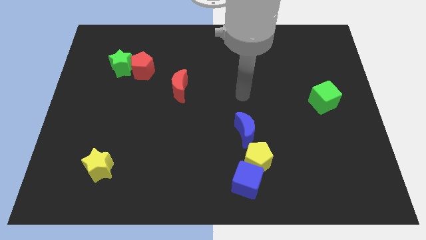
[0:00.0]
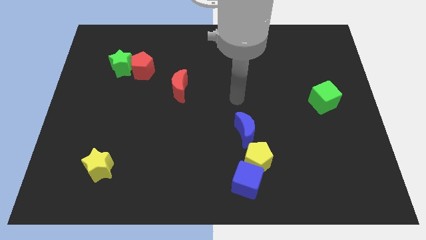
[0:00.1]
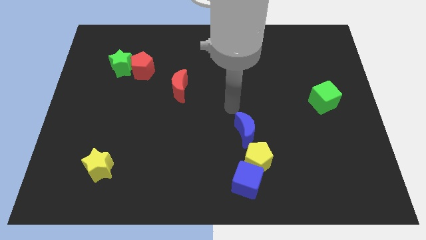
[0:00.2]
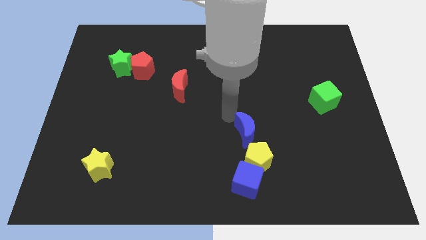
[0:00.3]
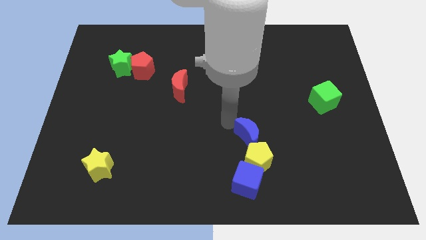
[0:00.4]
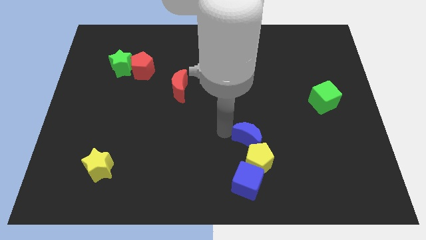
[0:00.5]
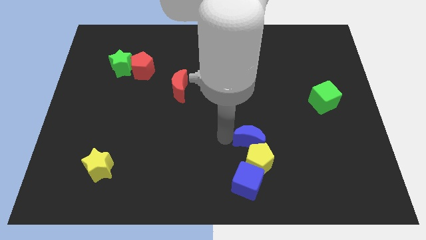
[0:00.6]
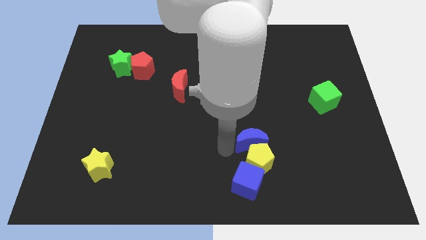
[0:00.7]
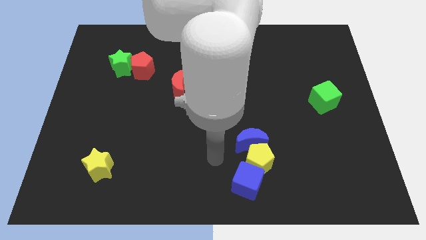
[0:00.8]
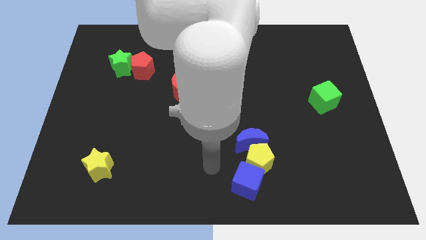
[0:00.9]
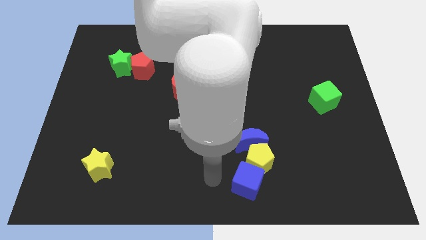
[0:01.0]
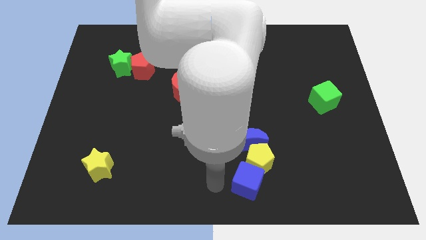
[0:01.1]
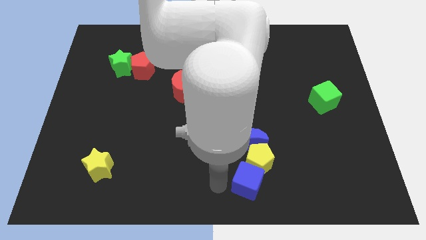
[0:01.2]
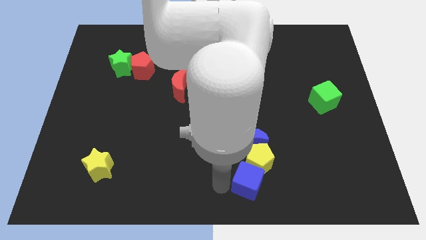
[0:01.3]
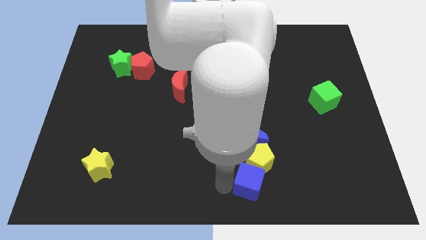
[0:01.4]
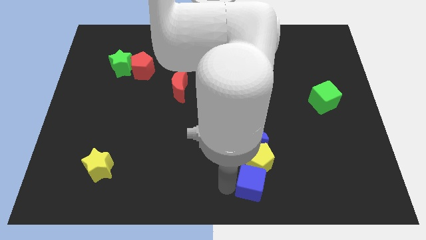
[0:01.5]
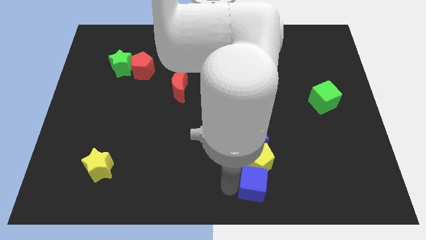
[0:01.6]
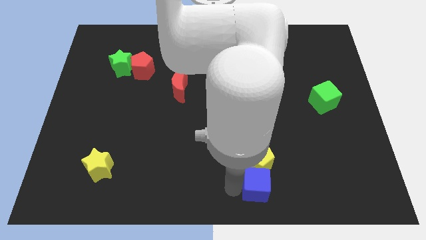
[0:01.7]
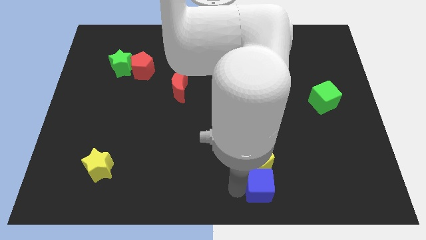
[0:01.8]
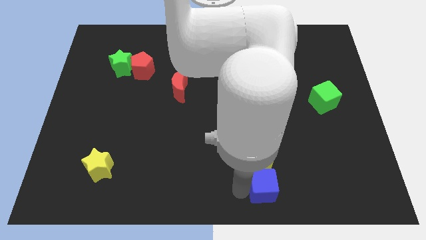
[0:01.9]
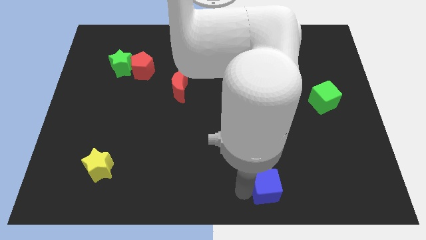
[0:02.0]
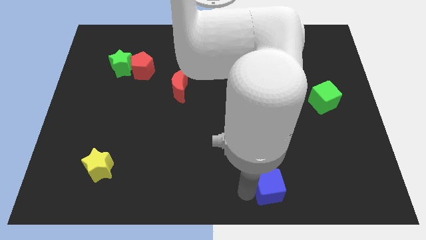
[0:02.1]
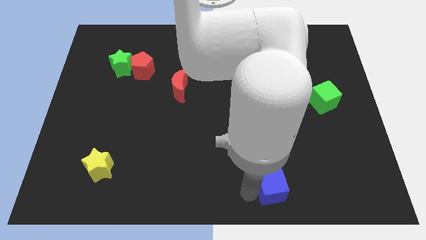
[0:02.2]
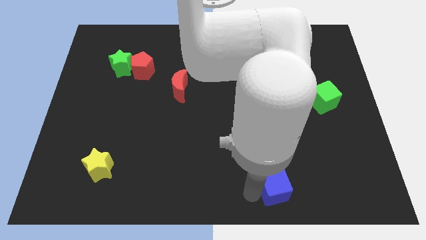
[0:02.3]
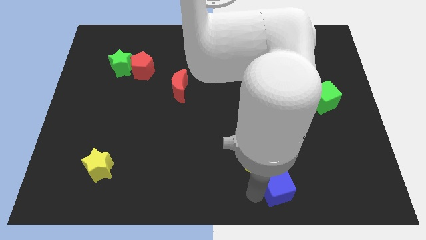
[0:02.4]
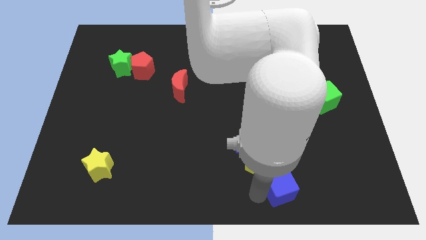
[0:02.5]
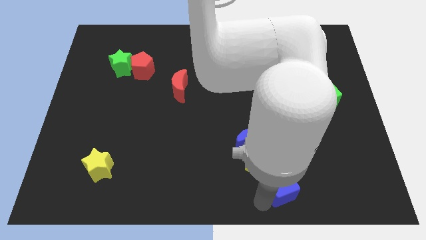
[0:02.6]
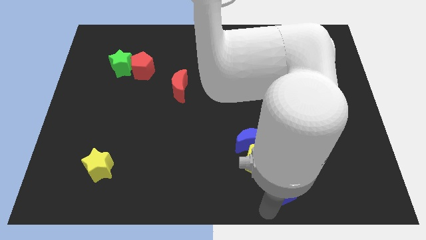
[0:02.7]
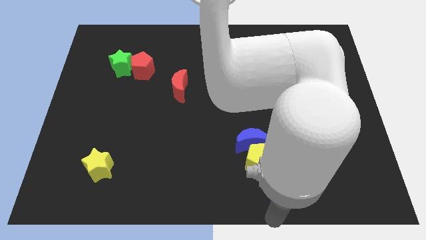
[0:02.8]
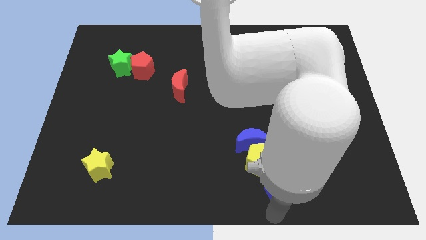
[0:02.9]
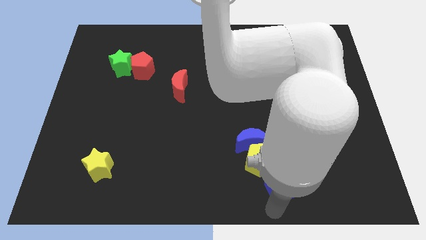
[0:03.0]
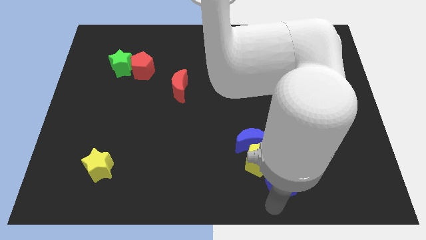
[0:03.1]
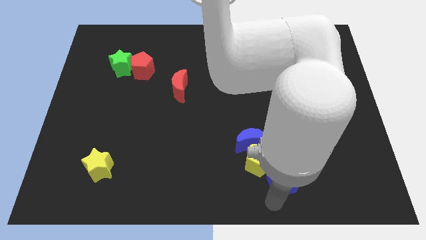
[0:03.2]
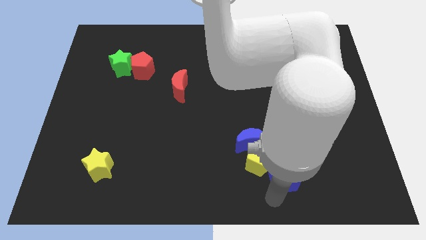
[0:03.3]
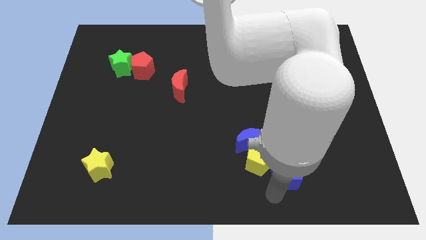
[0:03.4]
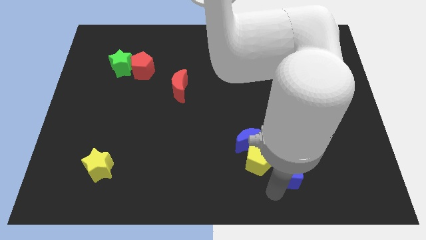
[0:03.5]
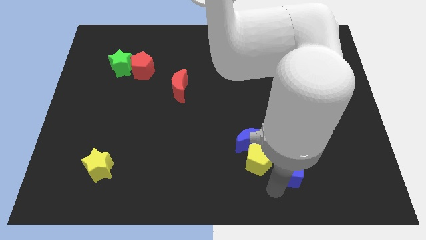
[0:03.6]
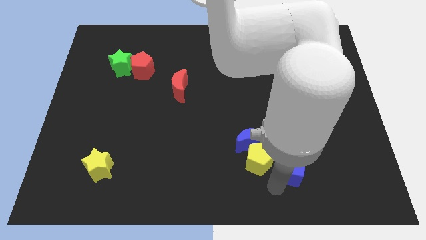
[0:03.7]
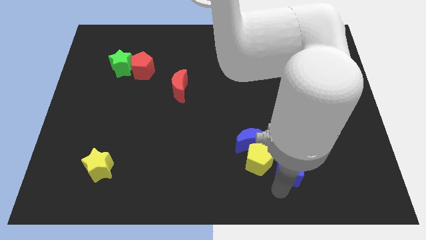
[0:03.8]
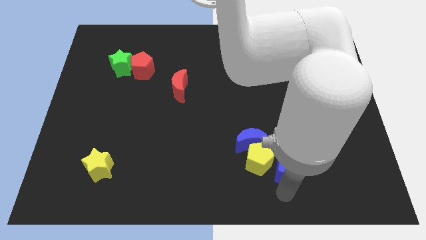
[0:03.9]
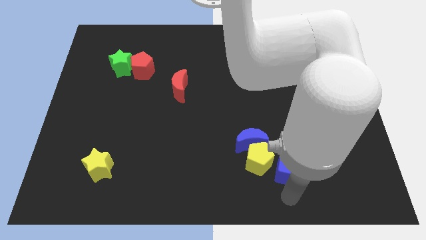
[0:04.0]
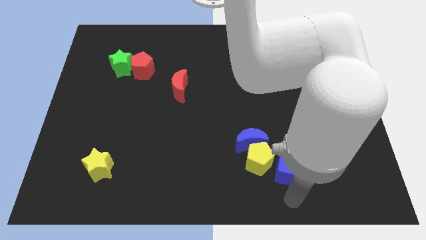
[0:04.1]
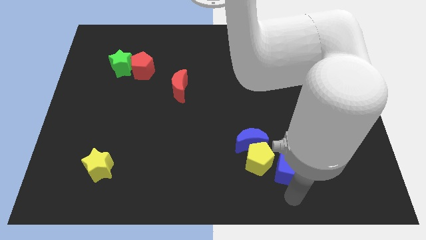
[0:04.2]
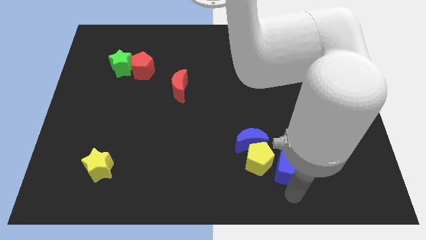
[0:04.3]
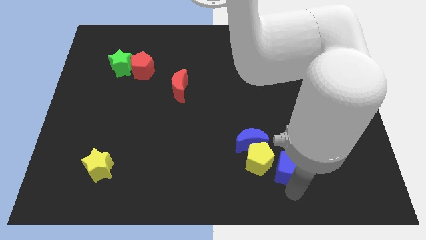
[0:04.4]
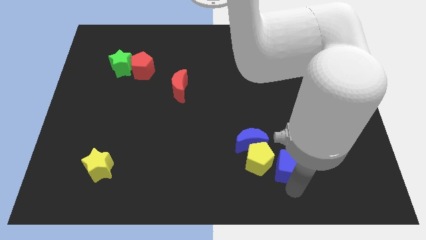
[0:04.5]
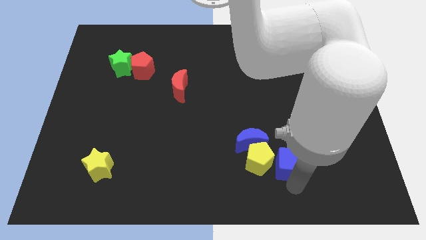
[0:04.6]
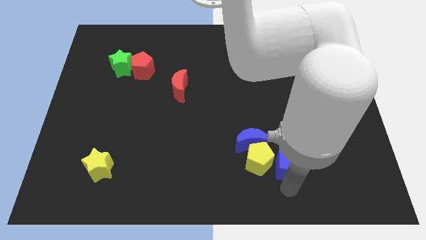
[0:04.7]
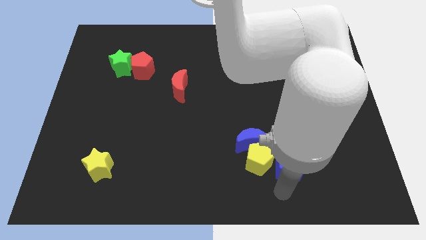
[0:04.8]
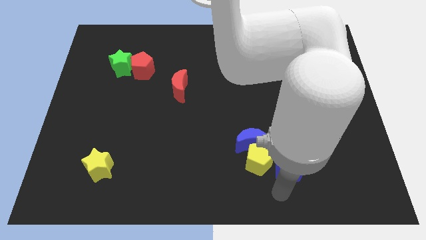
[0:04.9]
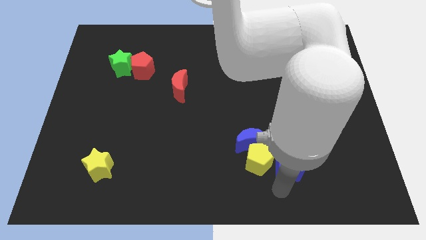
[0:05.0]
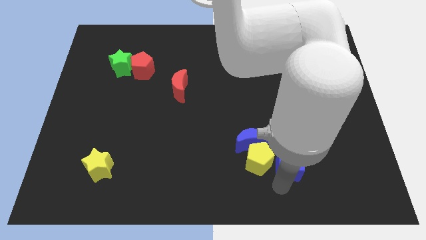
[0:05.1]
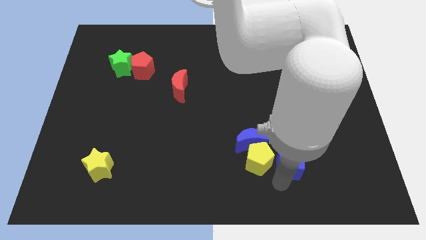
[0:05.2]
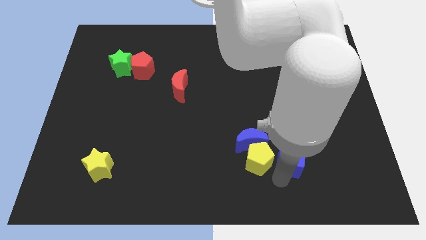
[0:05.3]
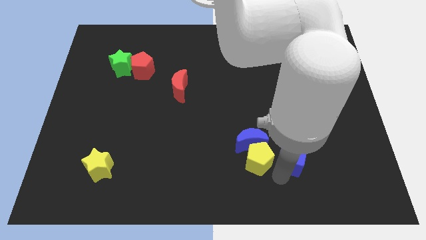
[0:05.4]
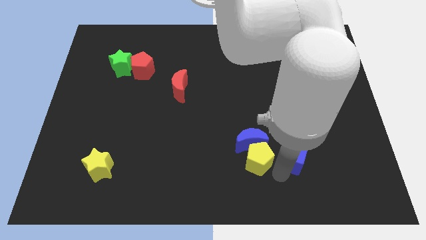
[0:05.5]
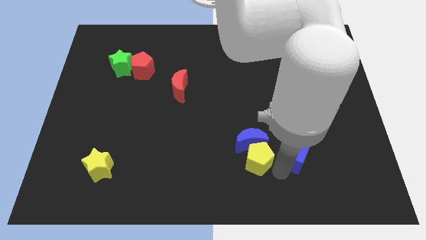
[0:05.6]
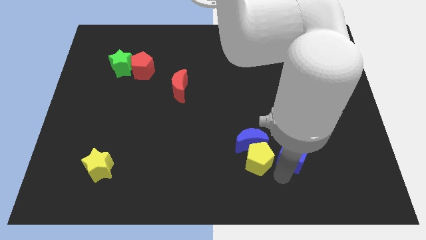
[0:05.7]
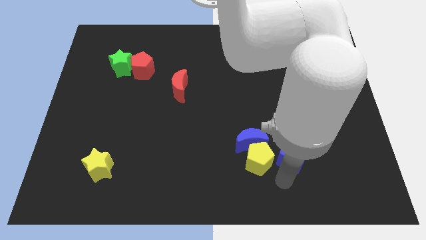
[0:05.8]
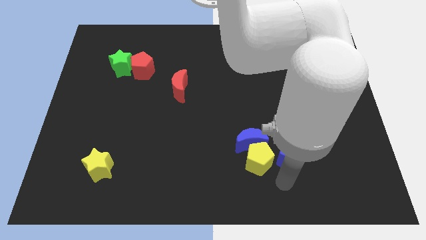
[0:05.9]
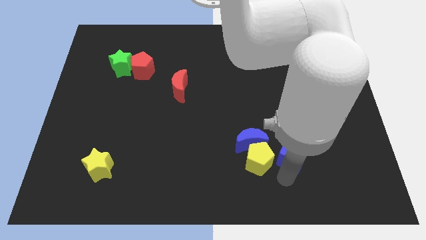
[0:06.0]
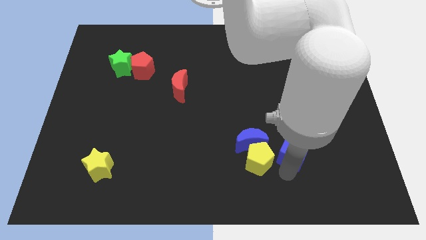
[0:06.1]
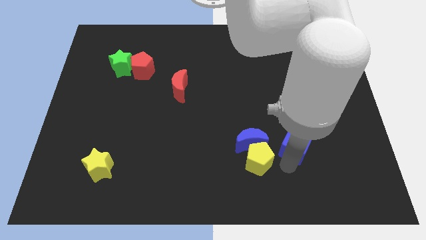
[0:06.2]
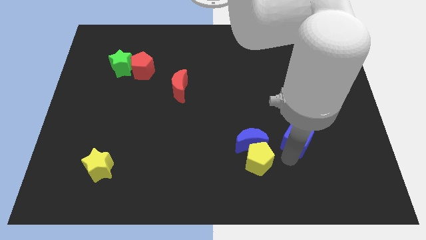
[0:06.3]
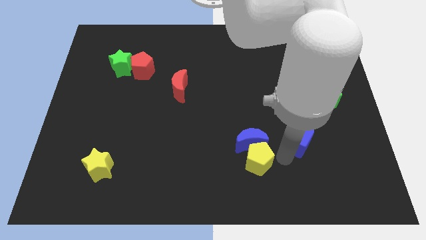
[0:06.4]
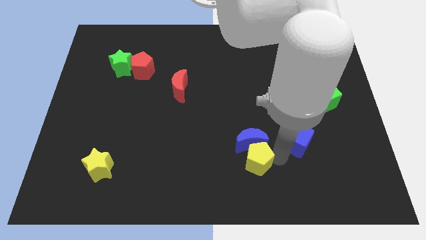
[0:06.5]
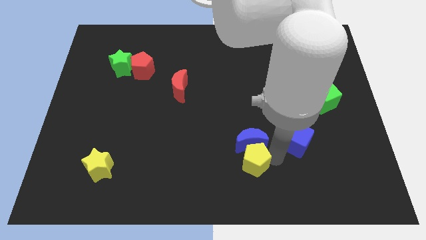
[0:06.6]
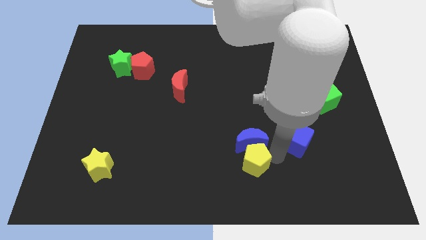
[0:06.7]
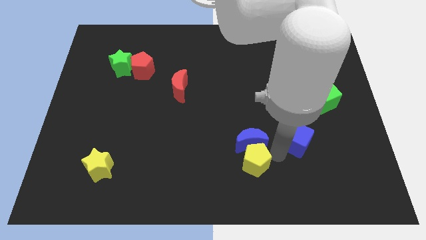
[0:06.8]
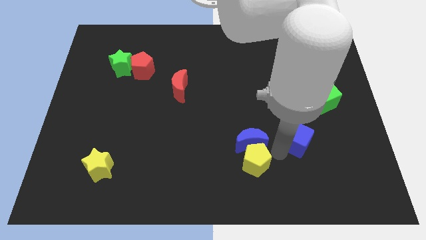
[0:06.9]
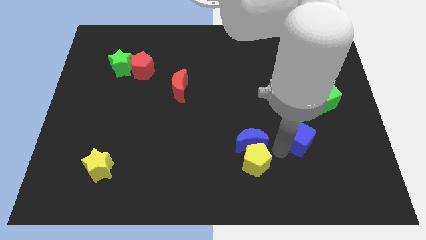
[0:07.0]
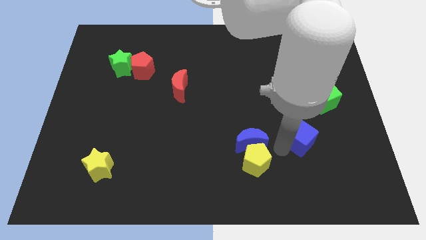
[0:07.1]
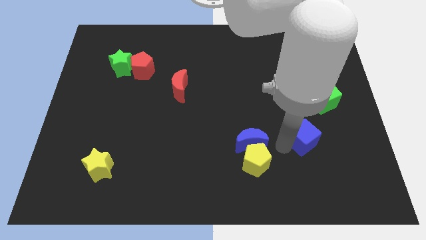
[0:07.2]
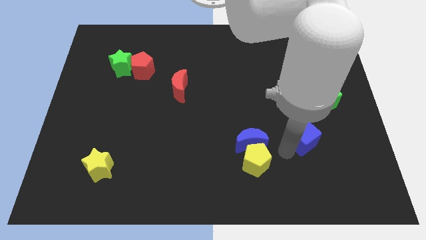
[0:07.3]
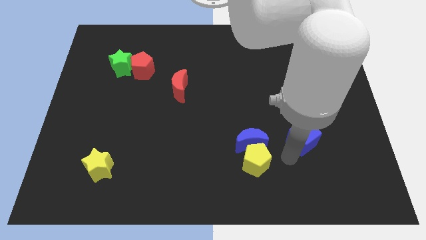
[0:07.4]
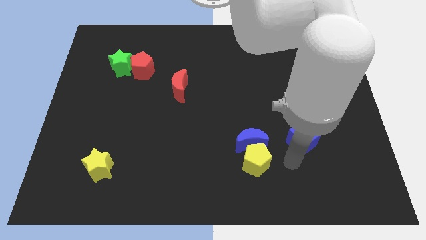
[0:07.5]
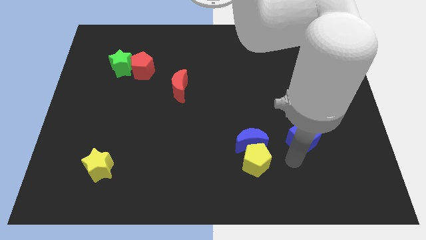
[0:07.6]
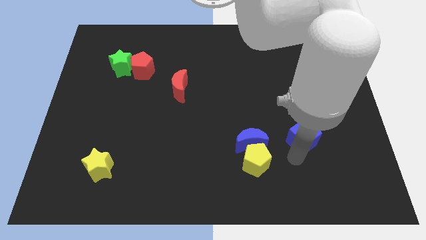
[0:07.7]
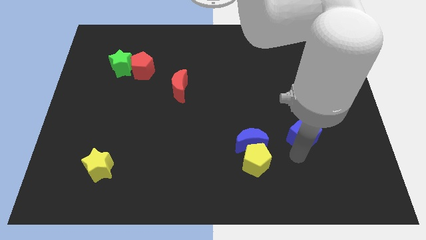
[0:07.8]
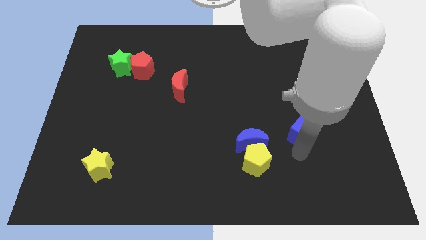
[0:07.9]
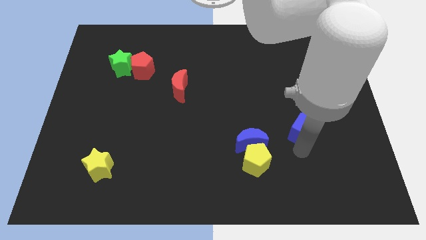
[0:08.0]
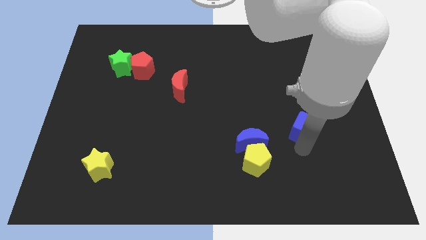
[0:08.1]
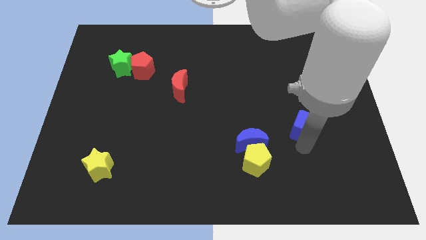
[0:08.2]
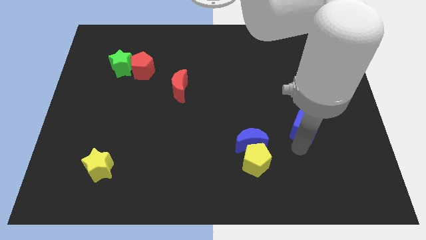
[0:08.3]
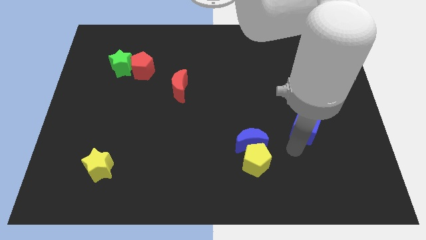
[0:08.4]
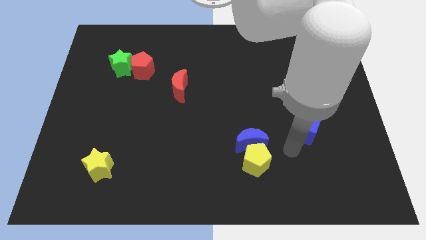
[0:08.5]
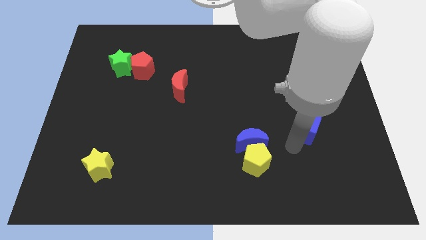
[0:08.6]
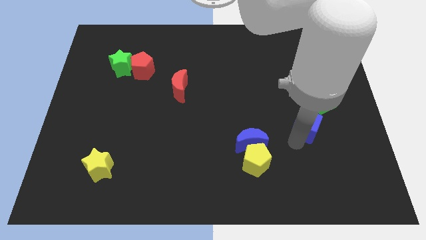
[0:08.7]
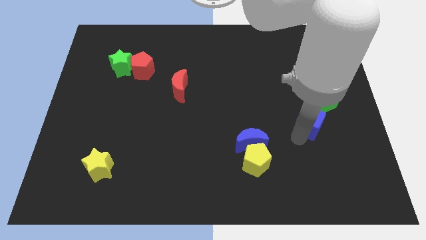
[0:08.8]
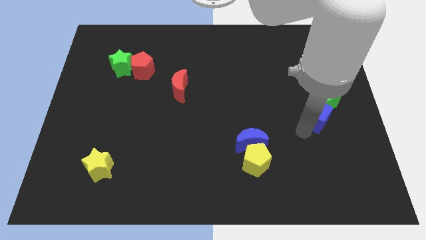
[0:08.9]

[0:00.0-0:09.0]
push the blue cube towards the green cube
